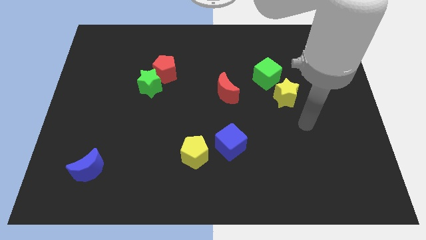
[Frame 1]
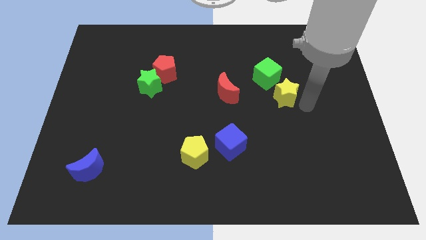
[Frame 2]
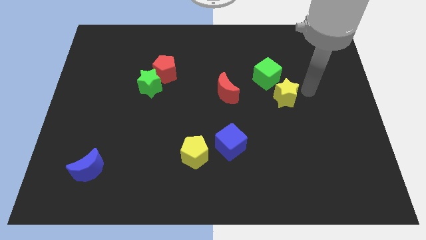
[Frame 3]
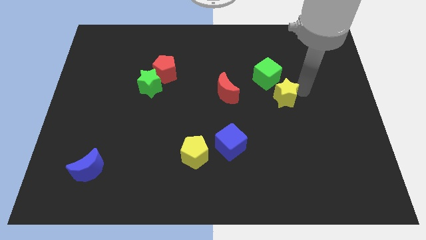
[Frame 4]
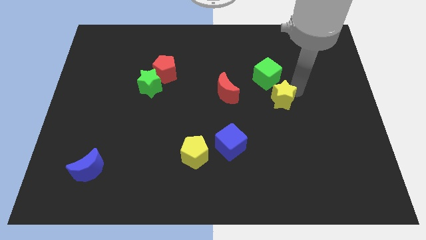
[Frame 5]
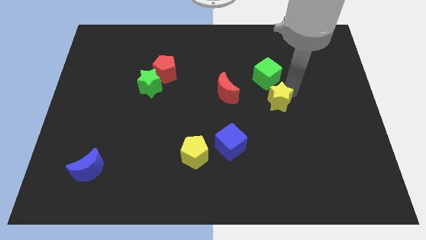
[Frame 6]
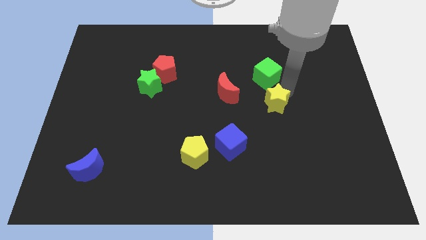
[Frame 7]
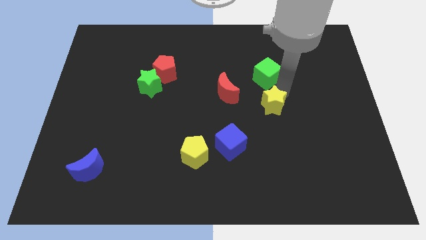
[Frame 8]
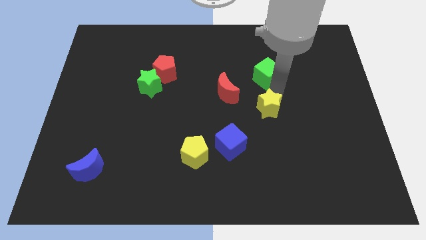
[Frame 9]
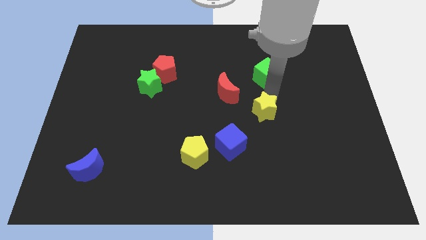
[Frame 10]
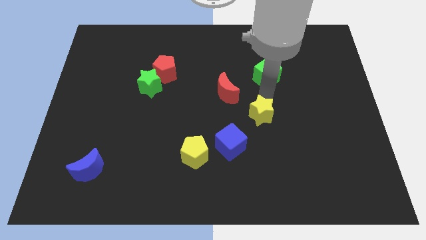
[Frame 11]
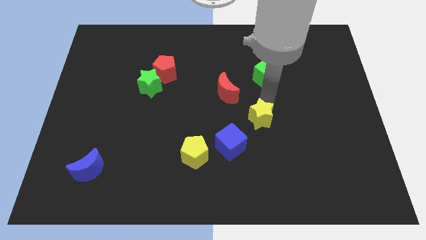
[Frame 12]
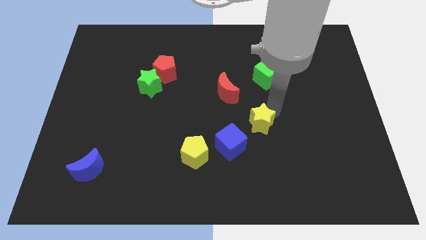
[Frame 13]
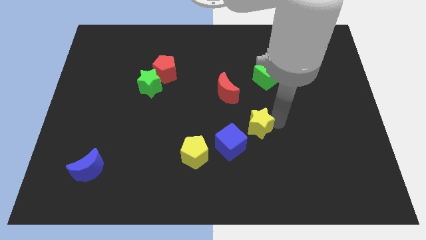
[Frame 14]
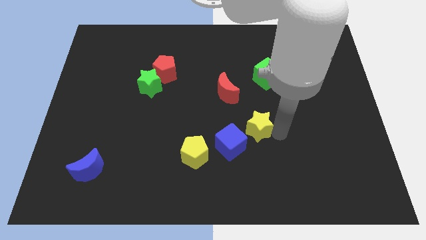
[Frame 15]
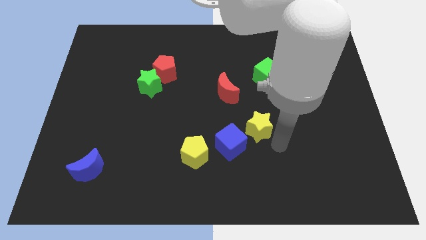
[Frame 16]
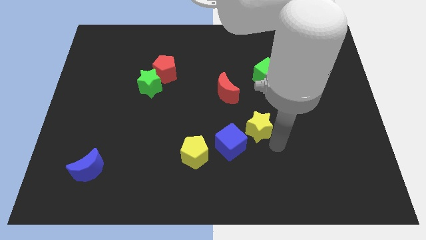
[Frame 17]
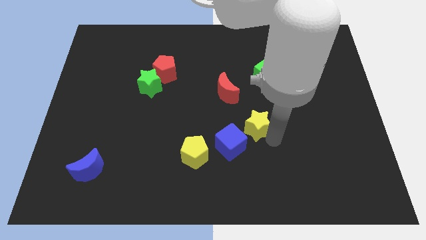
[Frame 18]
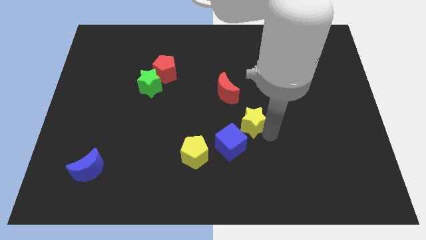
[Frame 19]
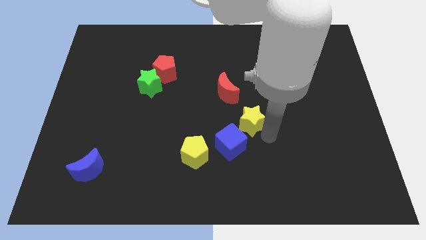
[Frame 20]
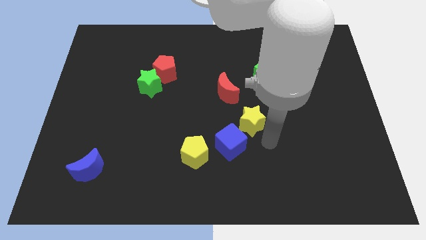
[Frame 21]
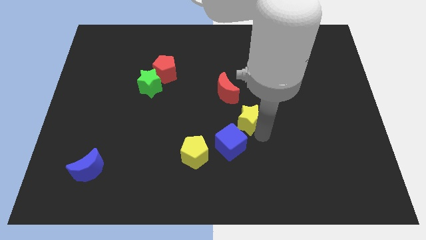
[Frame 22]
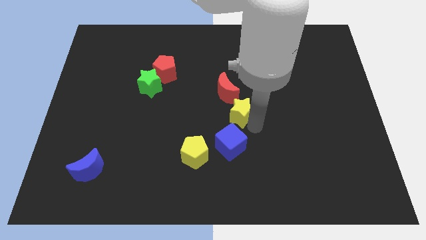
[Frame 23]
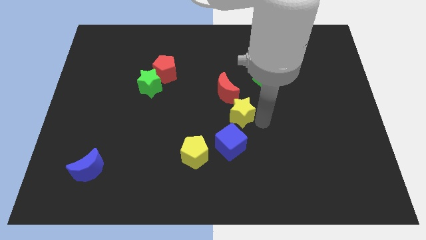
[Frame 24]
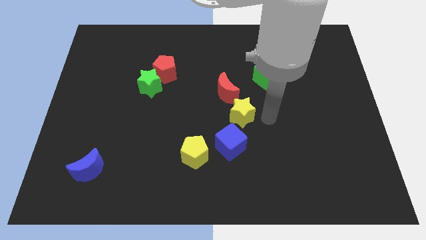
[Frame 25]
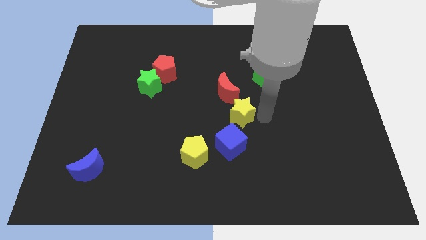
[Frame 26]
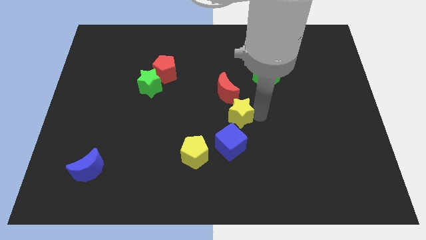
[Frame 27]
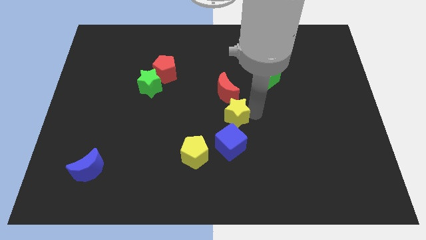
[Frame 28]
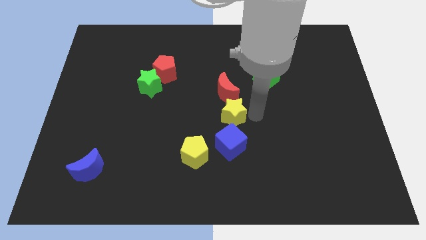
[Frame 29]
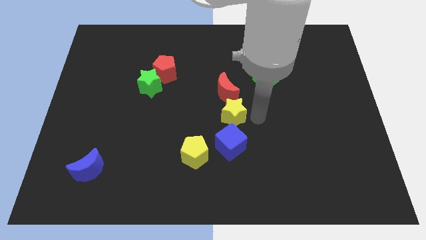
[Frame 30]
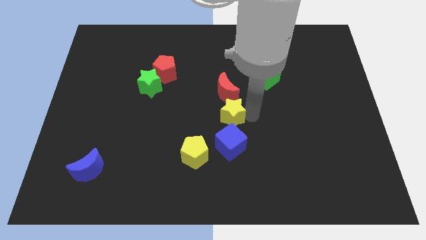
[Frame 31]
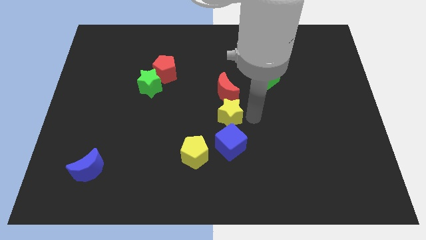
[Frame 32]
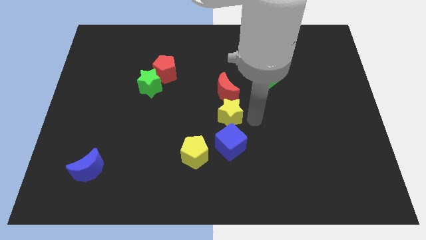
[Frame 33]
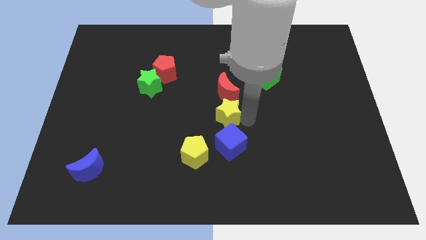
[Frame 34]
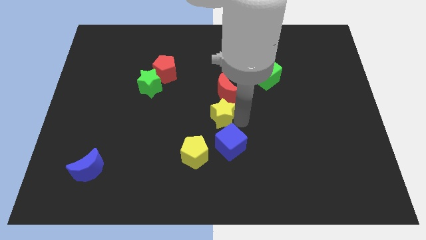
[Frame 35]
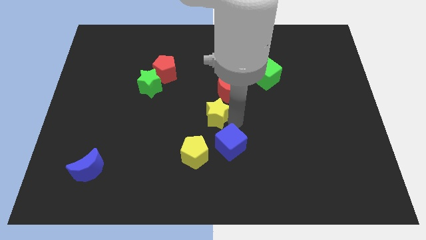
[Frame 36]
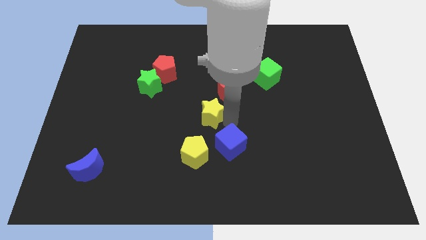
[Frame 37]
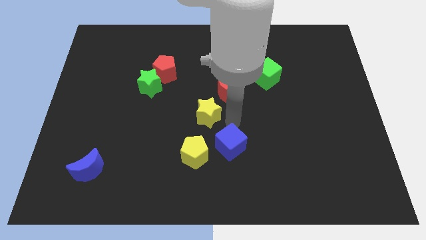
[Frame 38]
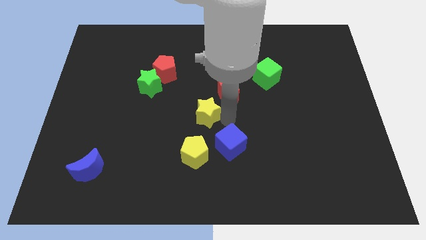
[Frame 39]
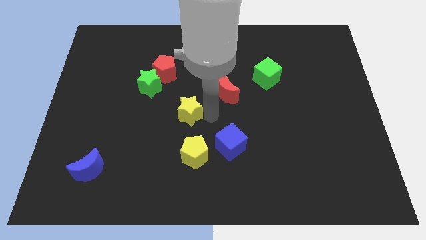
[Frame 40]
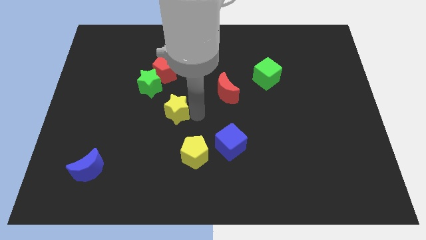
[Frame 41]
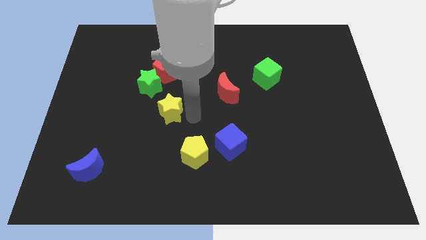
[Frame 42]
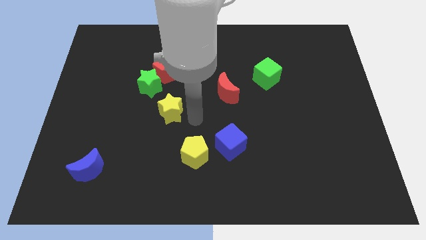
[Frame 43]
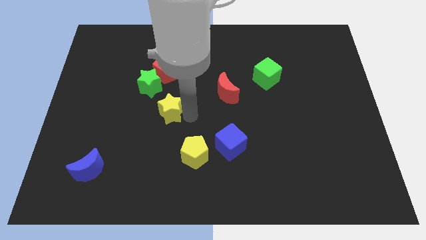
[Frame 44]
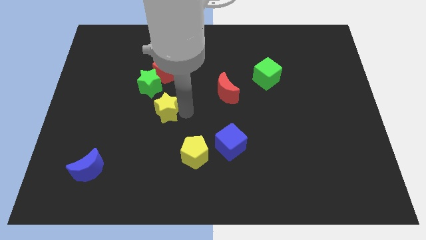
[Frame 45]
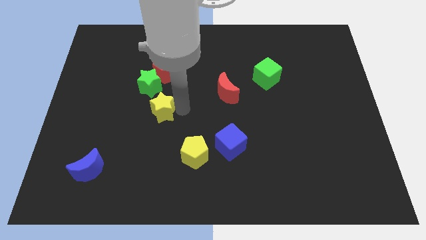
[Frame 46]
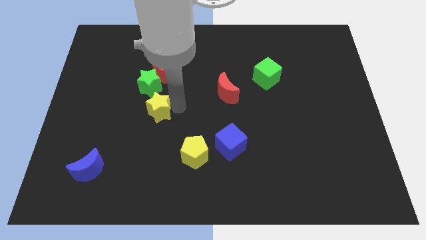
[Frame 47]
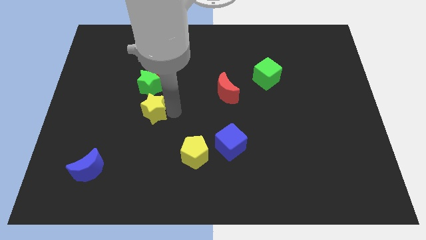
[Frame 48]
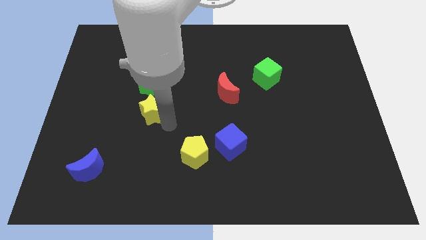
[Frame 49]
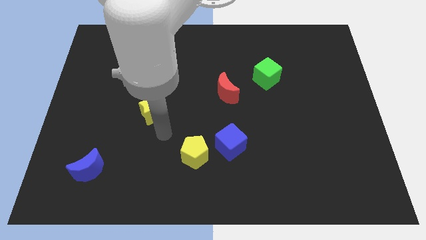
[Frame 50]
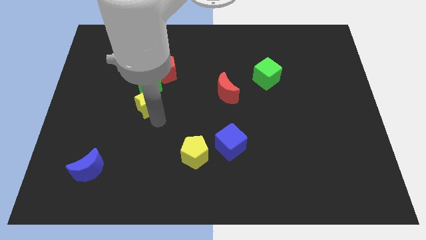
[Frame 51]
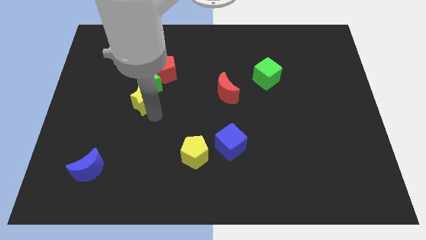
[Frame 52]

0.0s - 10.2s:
put the yellow star to the bottom left of the red pentagon

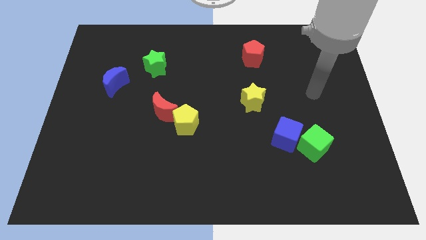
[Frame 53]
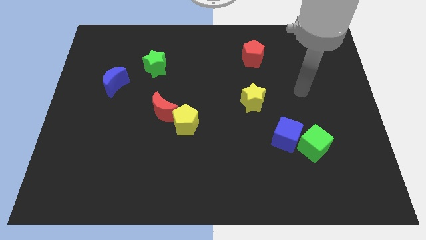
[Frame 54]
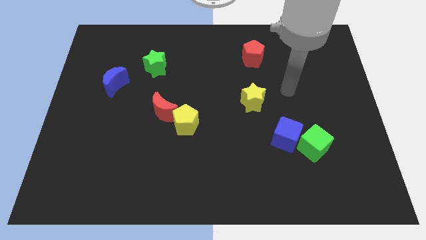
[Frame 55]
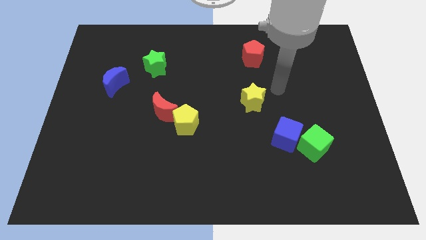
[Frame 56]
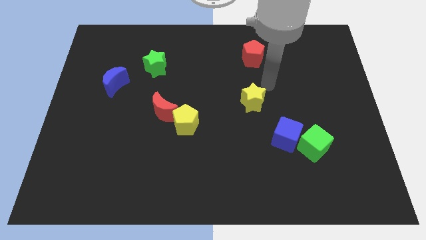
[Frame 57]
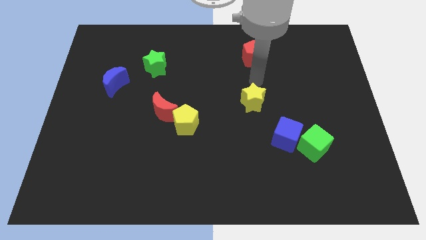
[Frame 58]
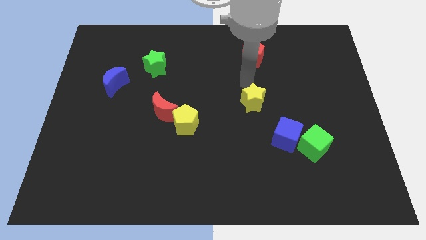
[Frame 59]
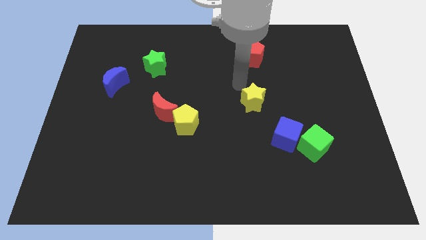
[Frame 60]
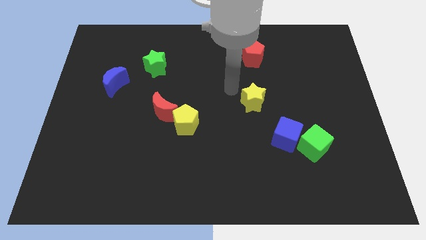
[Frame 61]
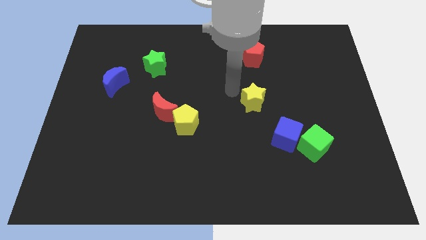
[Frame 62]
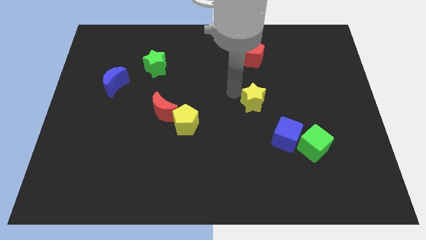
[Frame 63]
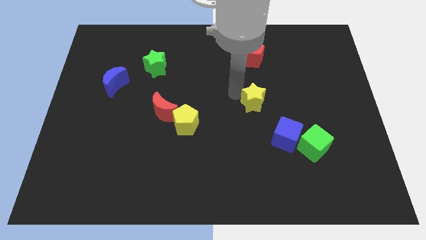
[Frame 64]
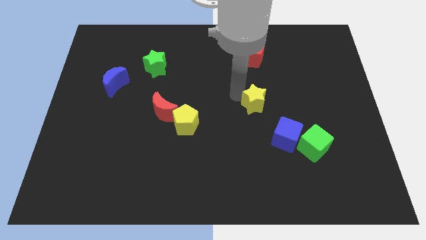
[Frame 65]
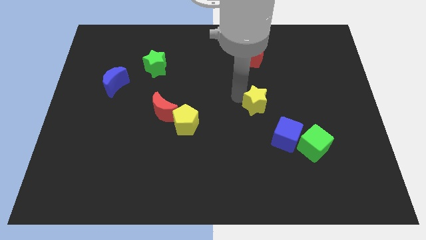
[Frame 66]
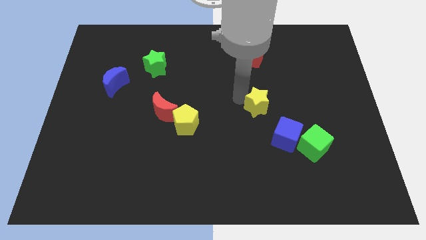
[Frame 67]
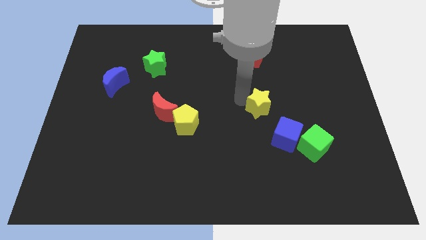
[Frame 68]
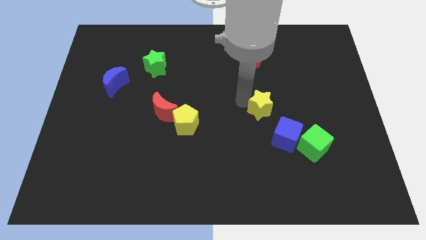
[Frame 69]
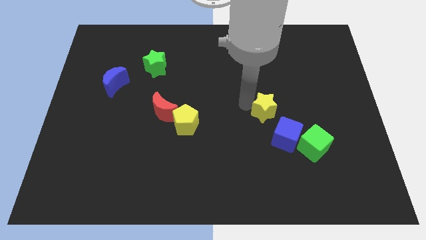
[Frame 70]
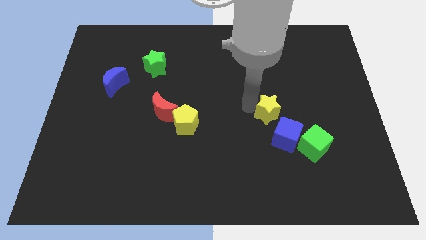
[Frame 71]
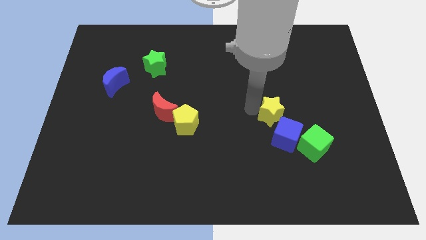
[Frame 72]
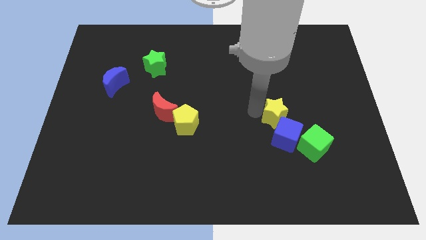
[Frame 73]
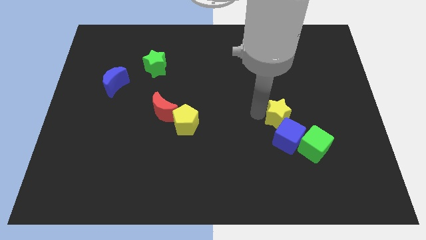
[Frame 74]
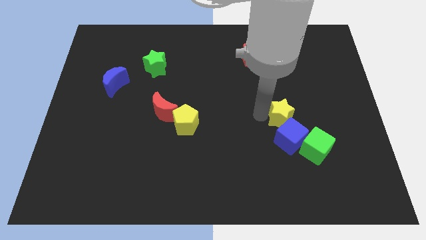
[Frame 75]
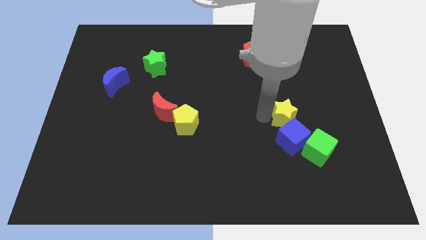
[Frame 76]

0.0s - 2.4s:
slide the yellow star diagonally up and to the right of the blue cube

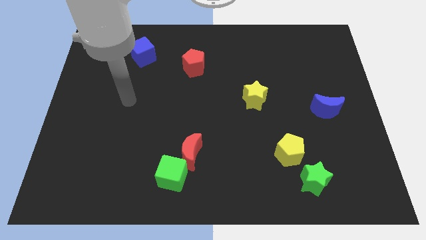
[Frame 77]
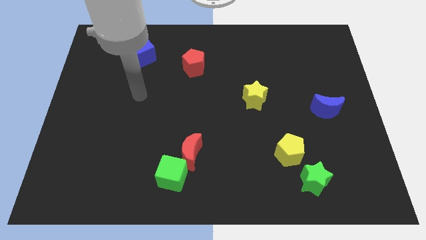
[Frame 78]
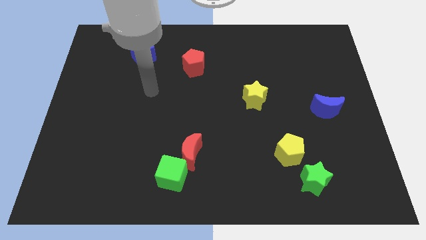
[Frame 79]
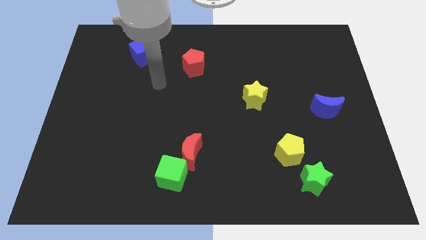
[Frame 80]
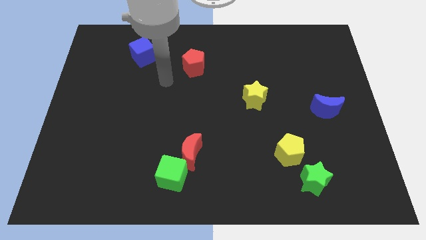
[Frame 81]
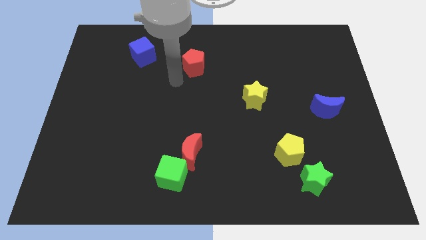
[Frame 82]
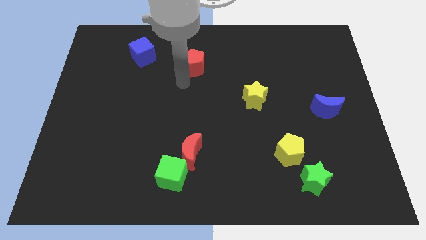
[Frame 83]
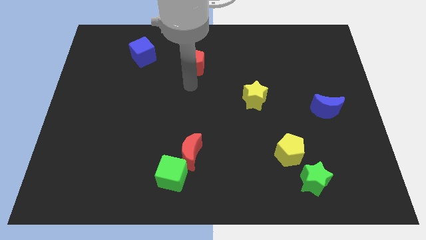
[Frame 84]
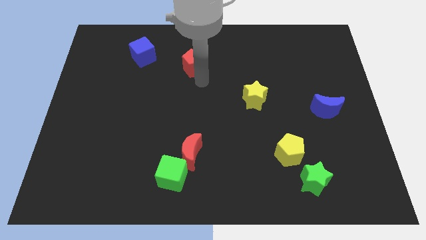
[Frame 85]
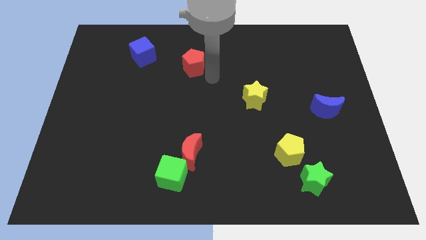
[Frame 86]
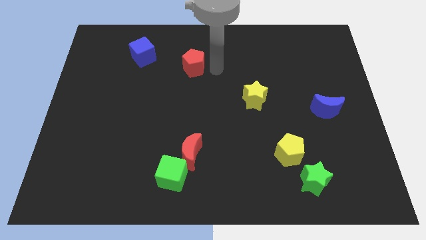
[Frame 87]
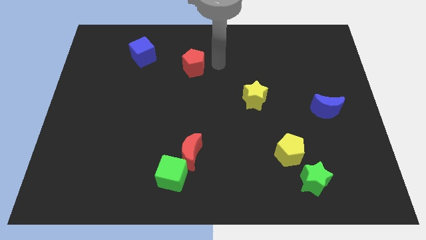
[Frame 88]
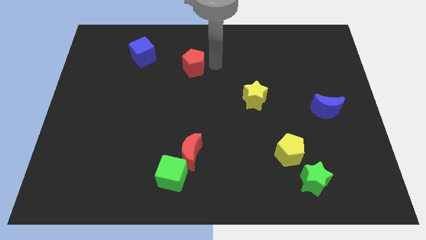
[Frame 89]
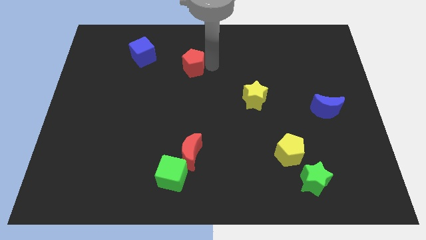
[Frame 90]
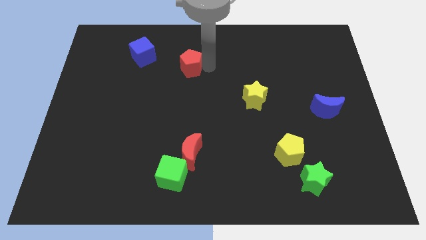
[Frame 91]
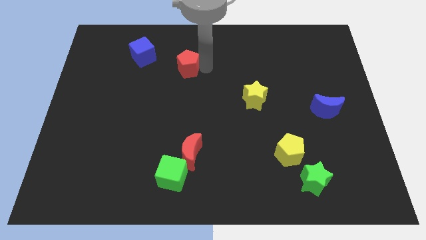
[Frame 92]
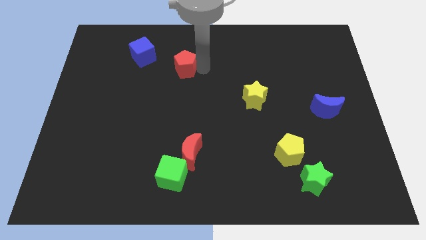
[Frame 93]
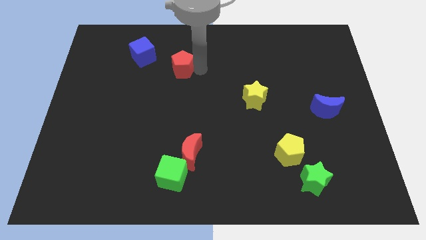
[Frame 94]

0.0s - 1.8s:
slide the red pentagon to the bottom right side of the blue cube
